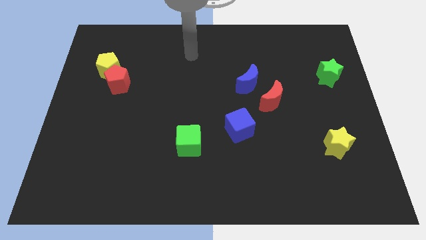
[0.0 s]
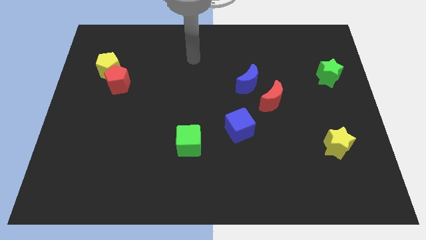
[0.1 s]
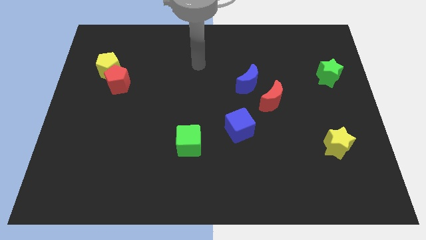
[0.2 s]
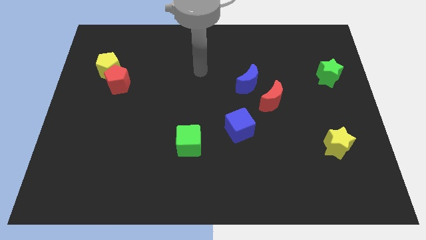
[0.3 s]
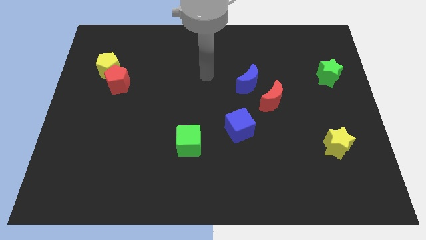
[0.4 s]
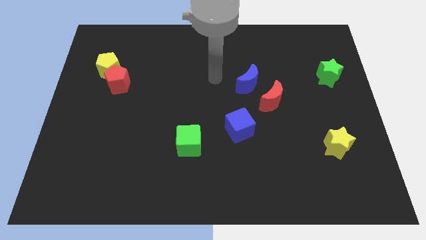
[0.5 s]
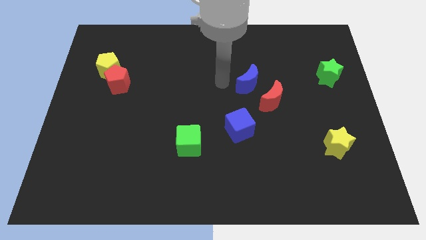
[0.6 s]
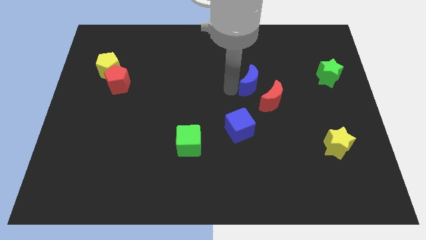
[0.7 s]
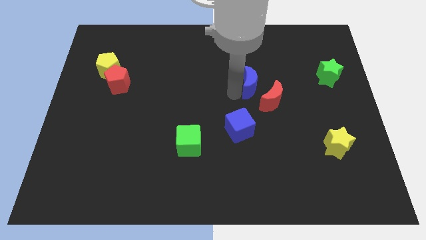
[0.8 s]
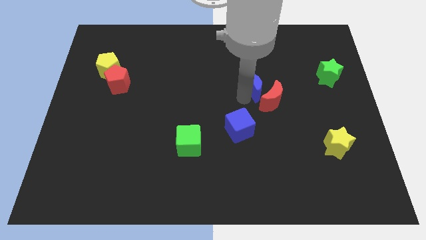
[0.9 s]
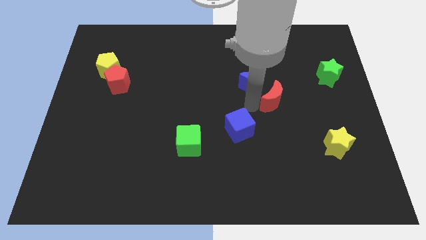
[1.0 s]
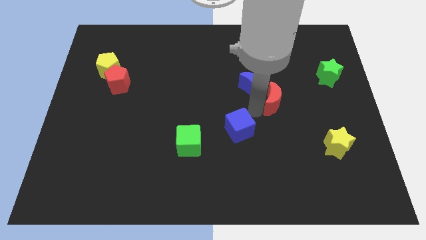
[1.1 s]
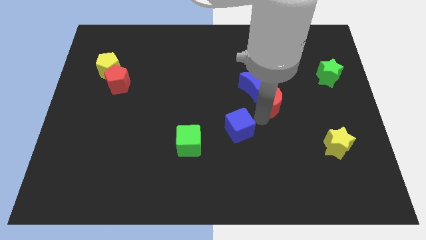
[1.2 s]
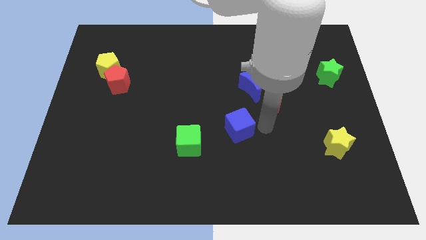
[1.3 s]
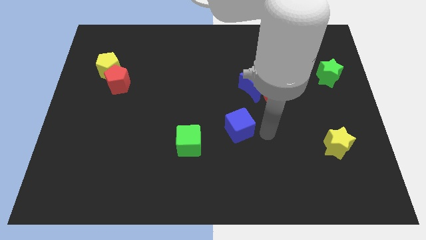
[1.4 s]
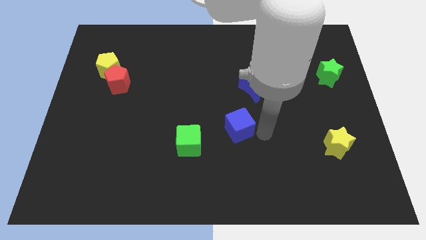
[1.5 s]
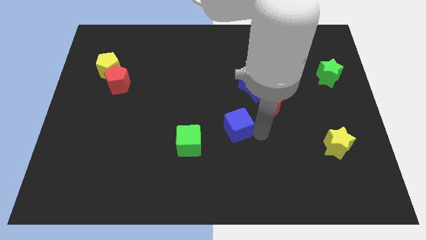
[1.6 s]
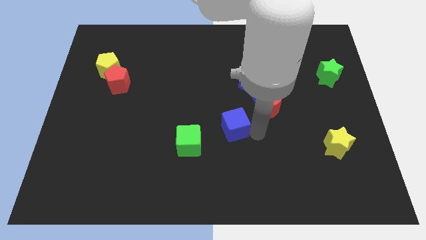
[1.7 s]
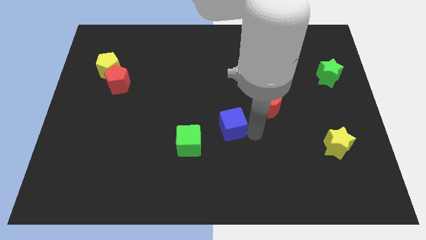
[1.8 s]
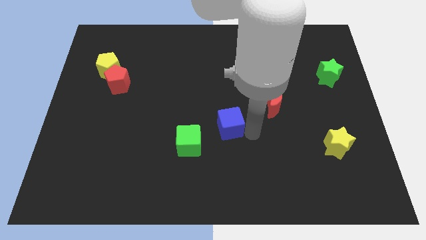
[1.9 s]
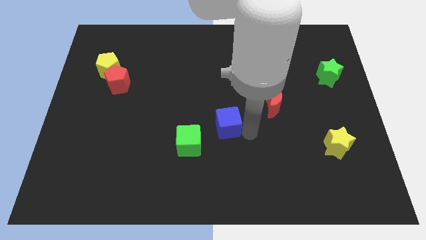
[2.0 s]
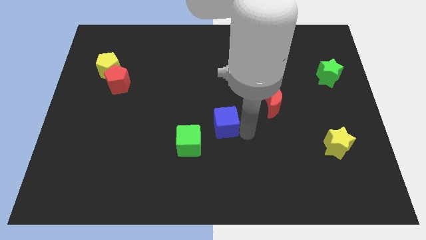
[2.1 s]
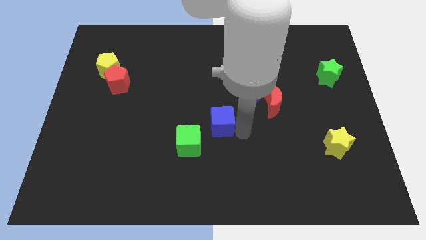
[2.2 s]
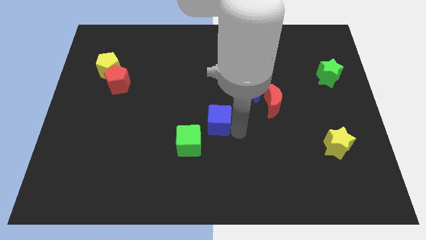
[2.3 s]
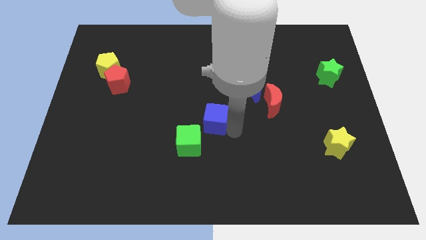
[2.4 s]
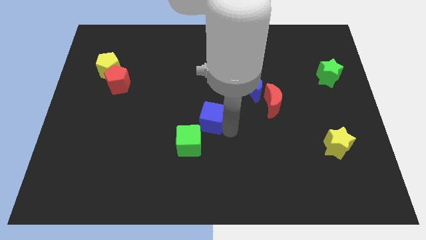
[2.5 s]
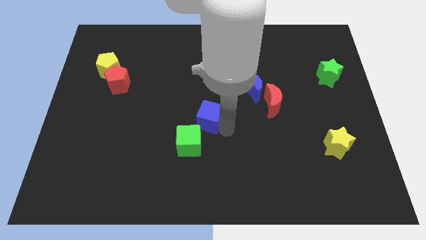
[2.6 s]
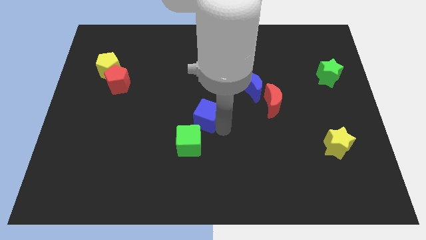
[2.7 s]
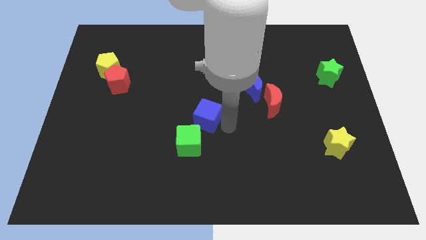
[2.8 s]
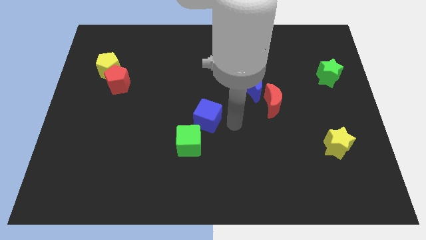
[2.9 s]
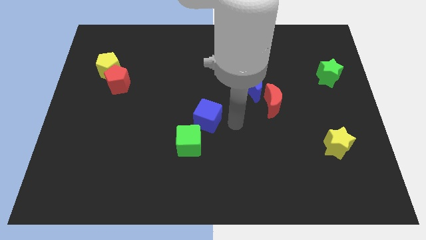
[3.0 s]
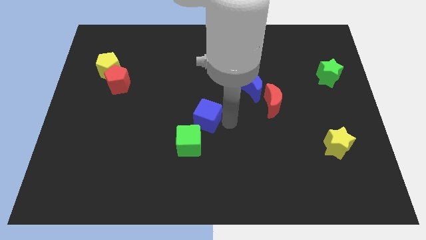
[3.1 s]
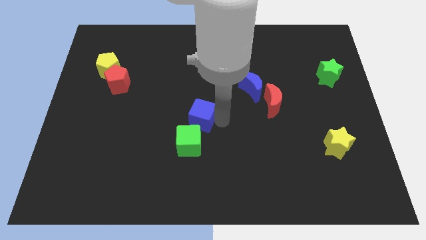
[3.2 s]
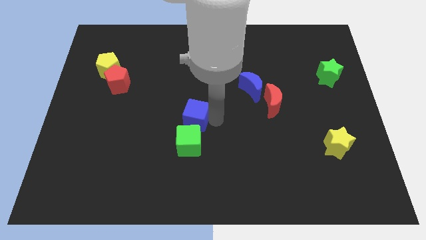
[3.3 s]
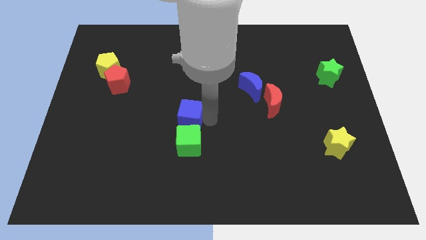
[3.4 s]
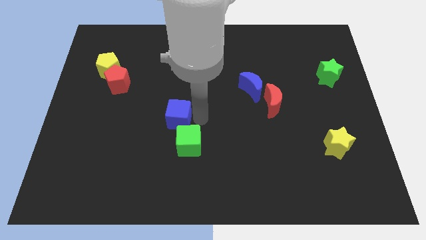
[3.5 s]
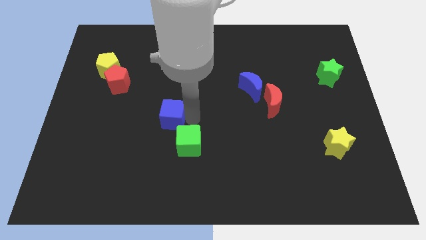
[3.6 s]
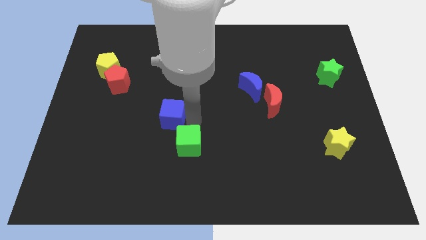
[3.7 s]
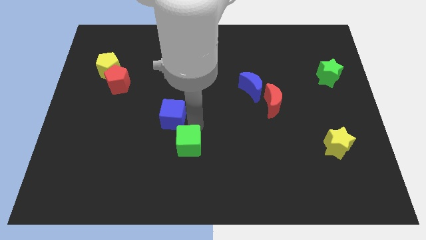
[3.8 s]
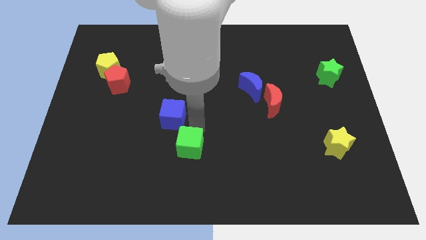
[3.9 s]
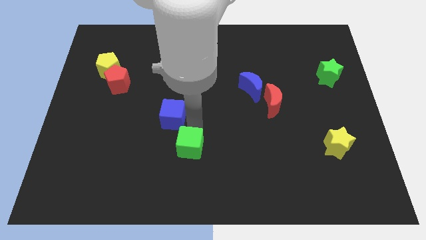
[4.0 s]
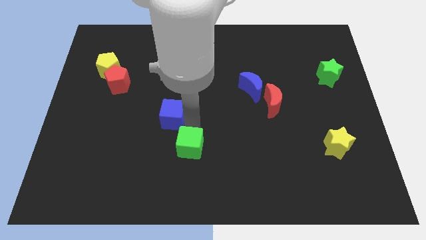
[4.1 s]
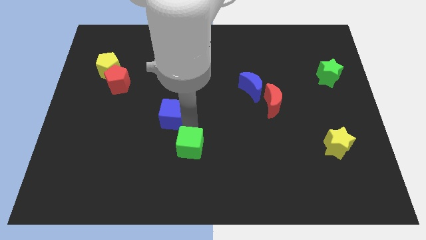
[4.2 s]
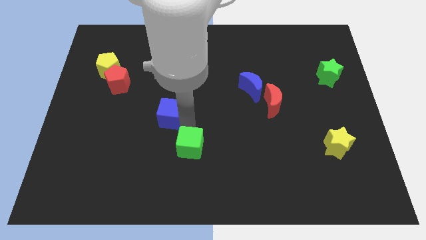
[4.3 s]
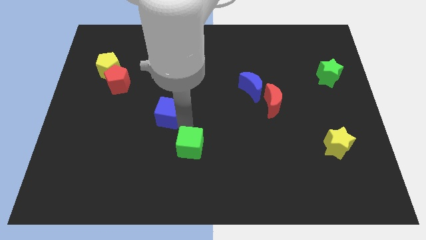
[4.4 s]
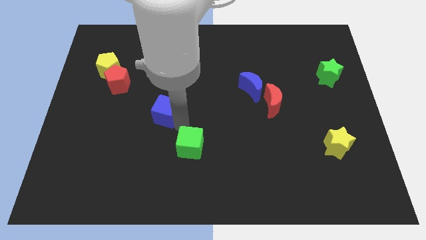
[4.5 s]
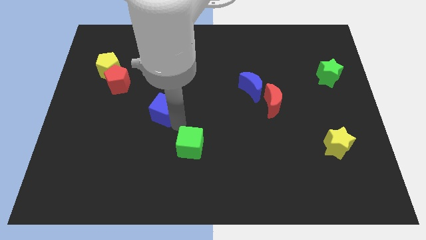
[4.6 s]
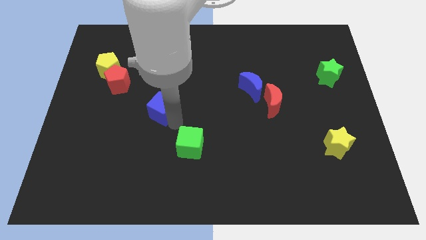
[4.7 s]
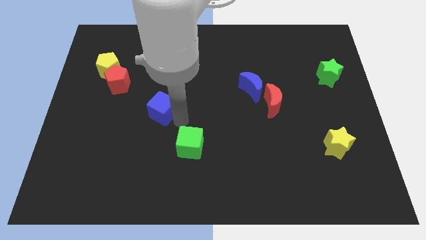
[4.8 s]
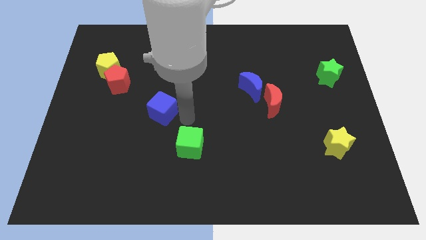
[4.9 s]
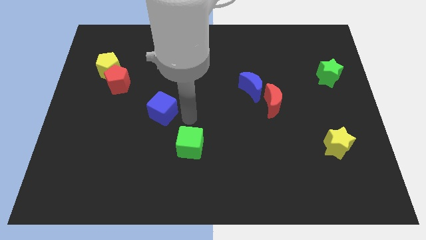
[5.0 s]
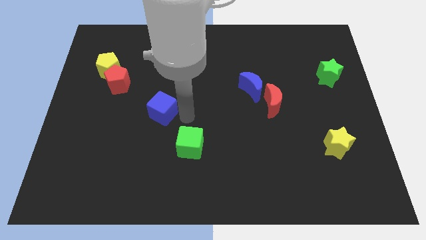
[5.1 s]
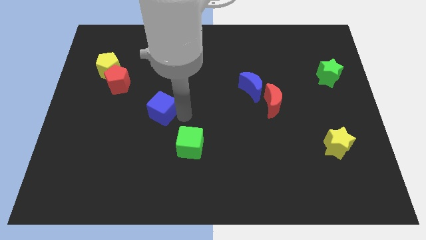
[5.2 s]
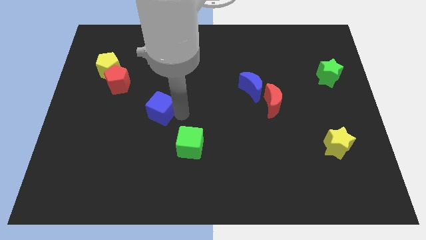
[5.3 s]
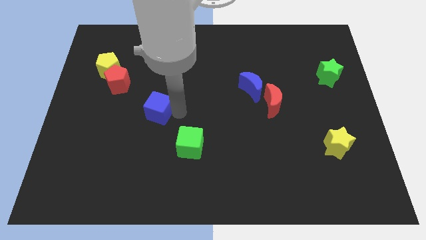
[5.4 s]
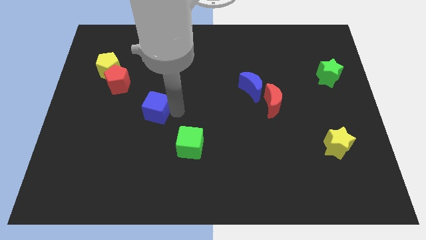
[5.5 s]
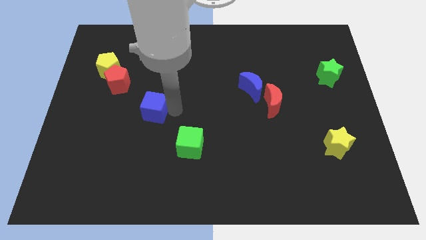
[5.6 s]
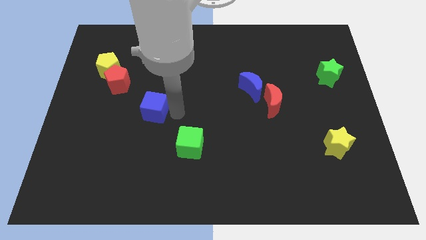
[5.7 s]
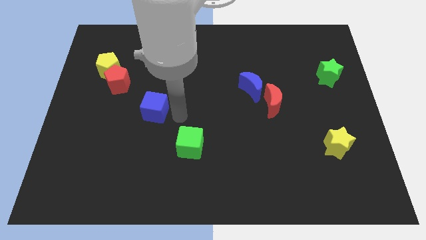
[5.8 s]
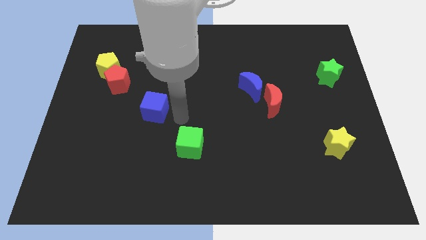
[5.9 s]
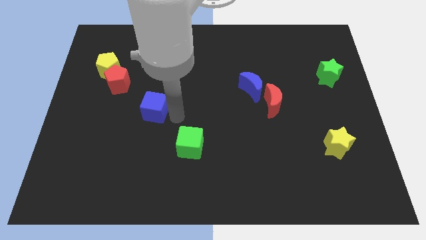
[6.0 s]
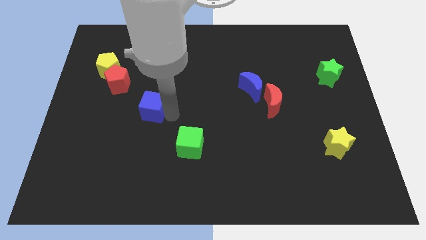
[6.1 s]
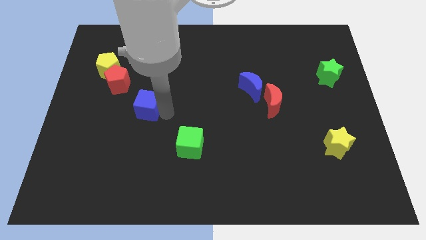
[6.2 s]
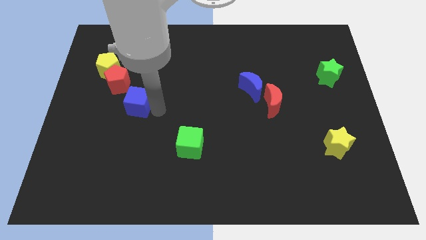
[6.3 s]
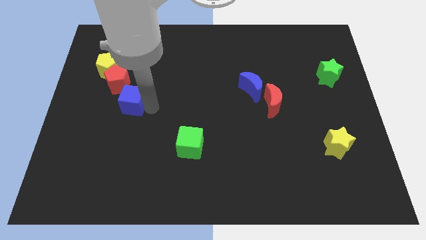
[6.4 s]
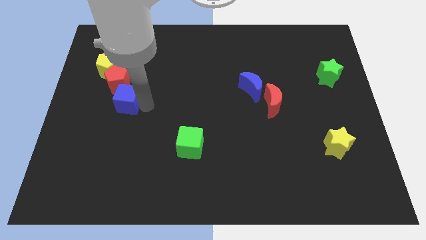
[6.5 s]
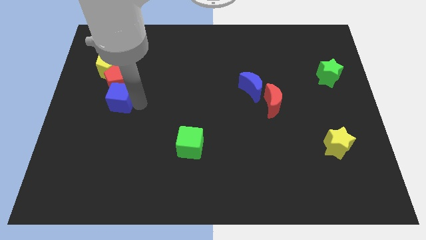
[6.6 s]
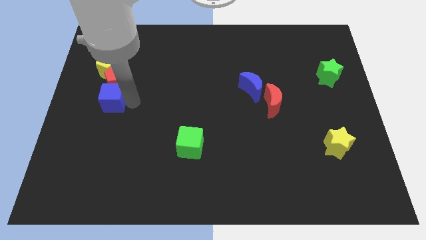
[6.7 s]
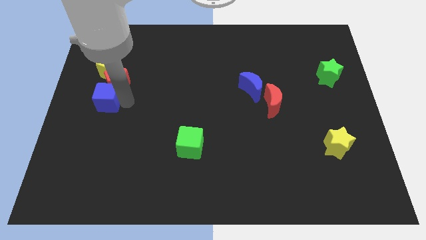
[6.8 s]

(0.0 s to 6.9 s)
put the blue cube to the left side of the board
